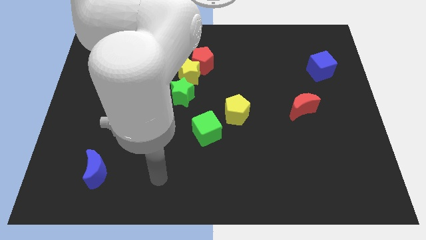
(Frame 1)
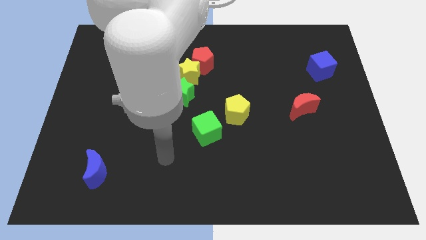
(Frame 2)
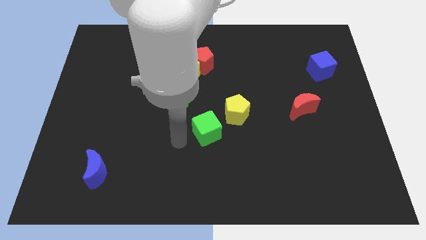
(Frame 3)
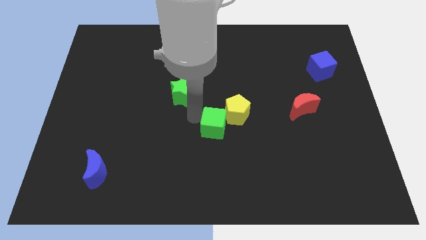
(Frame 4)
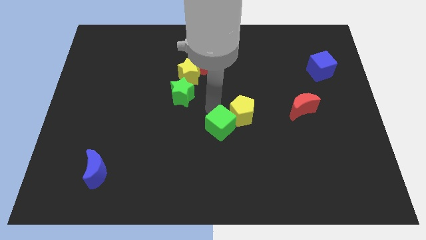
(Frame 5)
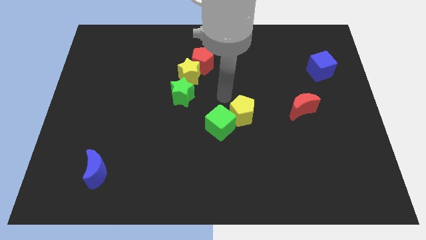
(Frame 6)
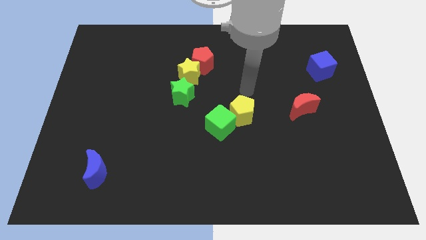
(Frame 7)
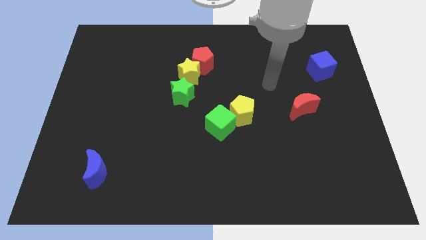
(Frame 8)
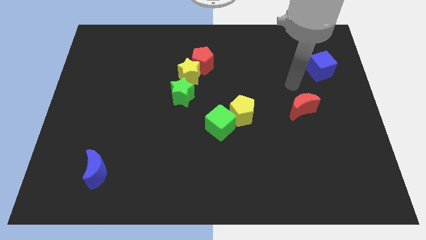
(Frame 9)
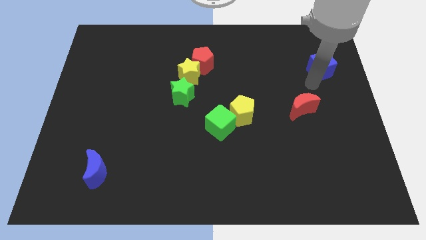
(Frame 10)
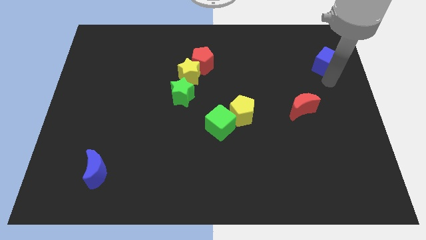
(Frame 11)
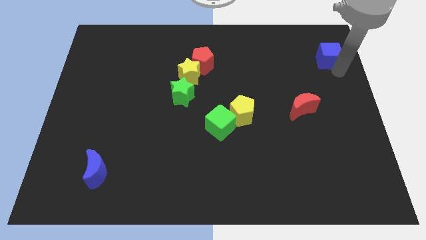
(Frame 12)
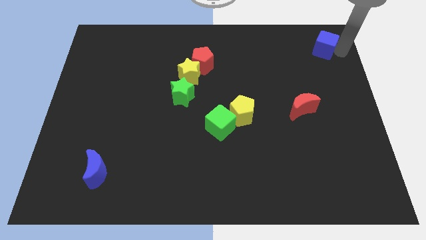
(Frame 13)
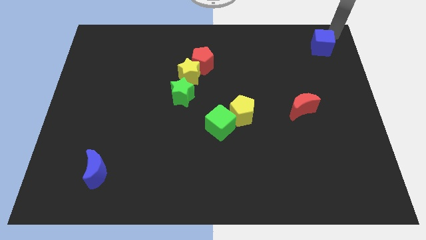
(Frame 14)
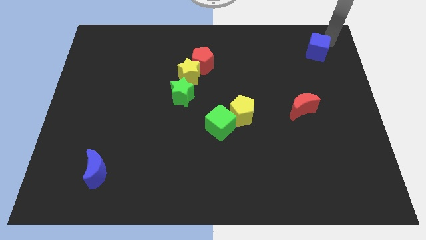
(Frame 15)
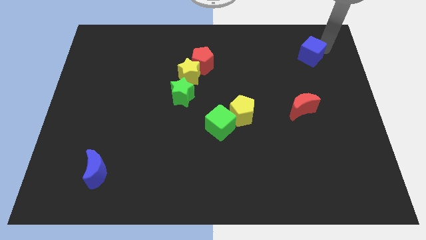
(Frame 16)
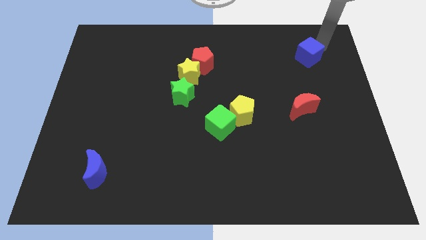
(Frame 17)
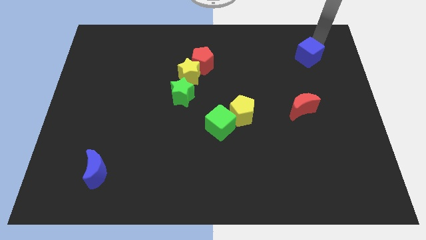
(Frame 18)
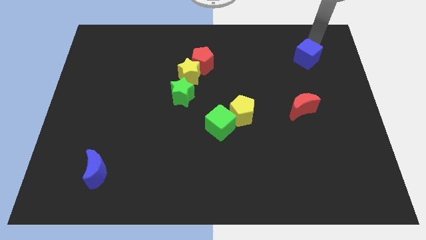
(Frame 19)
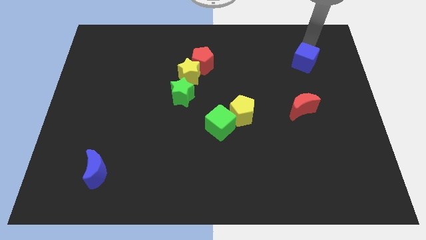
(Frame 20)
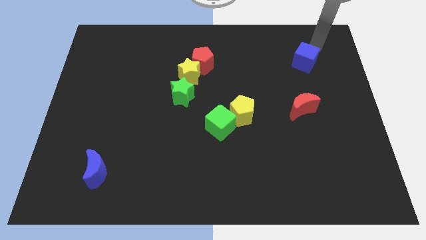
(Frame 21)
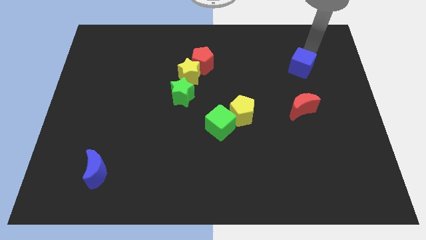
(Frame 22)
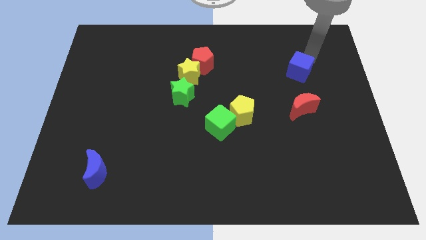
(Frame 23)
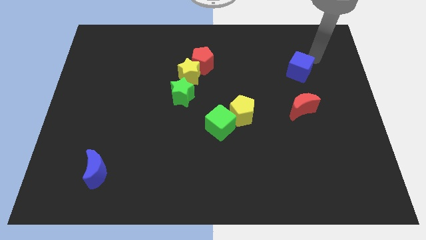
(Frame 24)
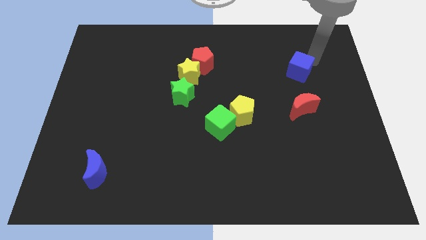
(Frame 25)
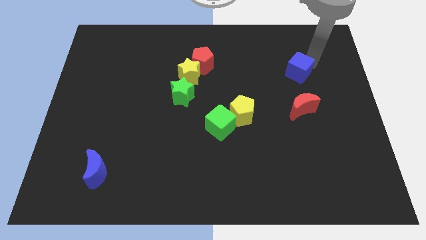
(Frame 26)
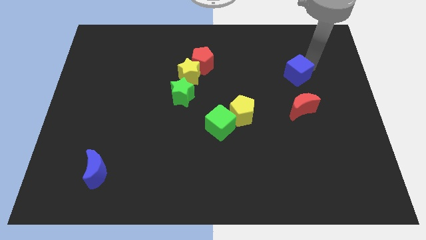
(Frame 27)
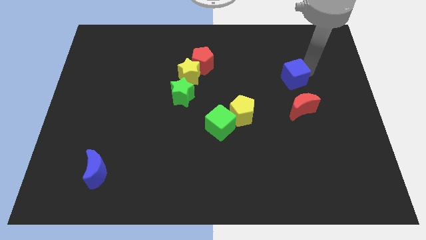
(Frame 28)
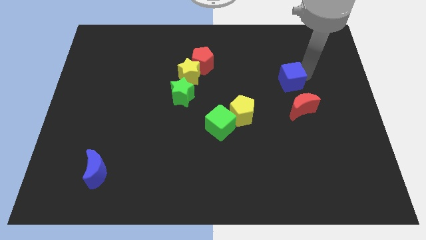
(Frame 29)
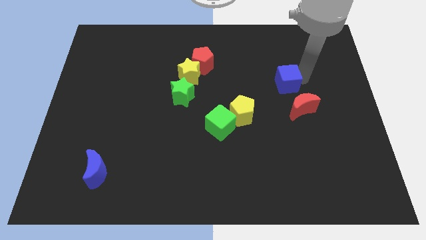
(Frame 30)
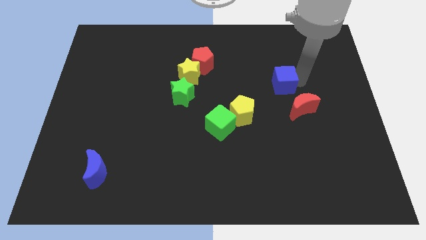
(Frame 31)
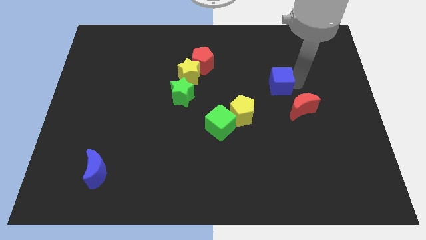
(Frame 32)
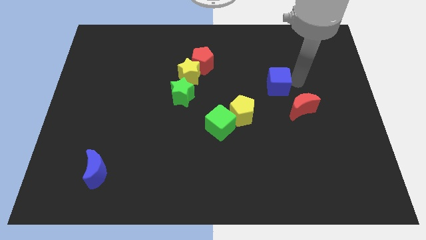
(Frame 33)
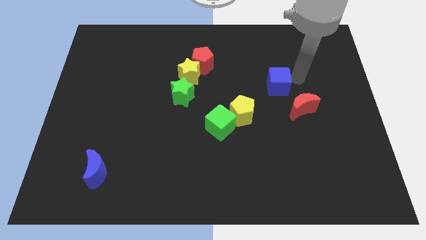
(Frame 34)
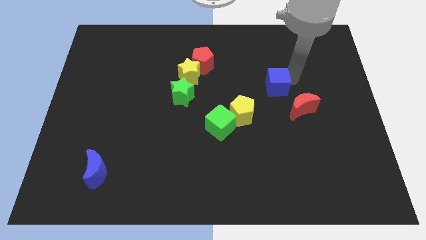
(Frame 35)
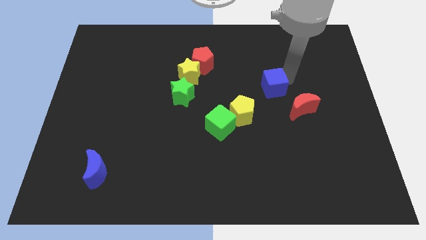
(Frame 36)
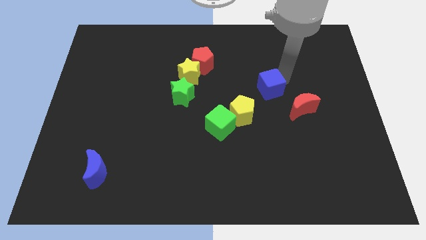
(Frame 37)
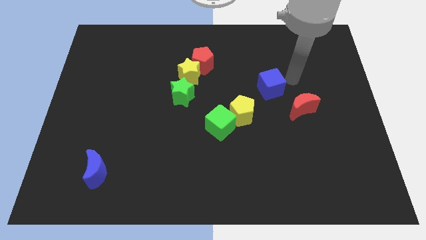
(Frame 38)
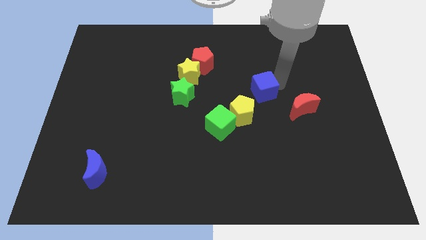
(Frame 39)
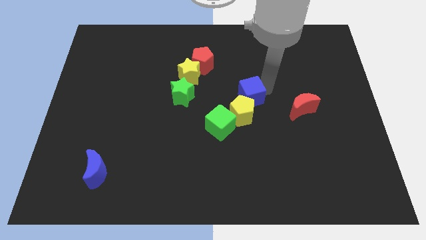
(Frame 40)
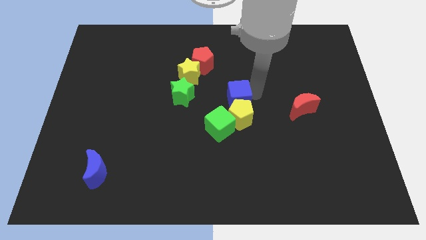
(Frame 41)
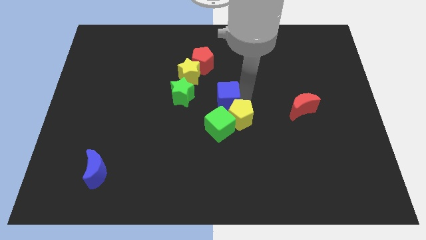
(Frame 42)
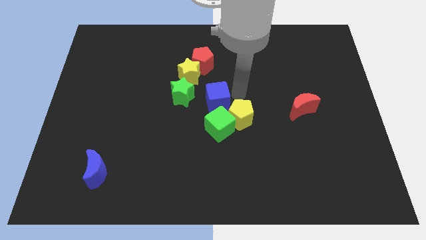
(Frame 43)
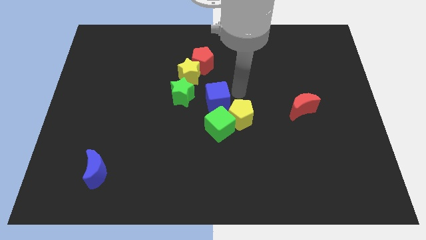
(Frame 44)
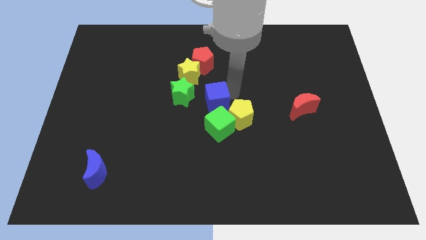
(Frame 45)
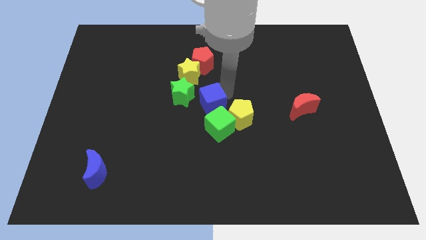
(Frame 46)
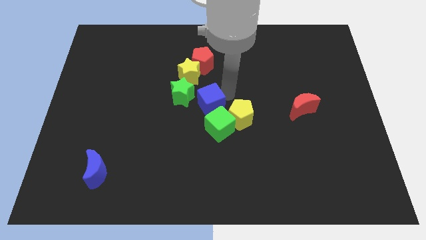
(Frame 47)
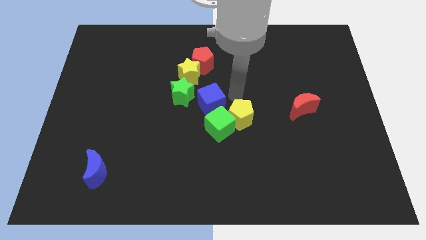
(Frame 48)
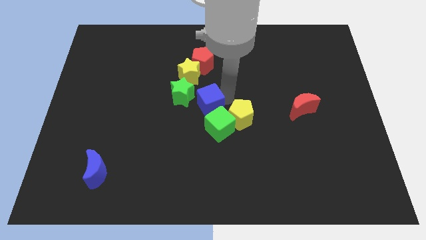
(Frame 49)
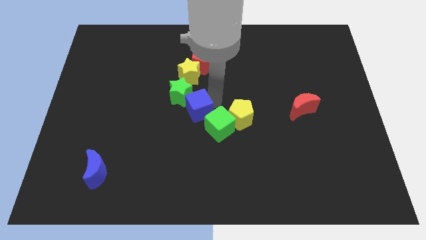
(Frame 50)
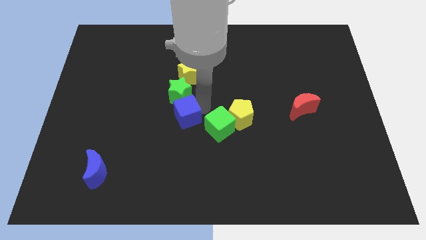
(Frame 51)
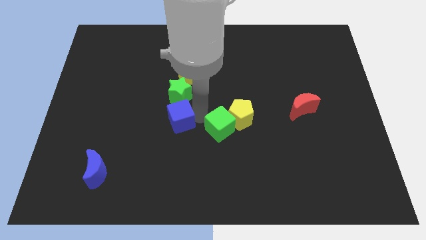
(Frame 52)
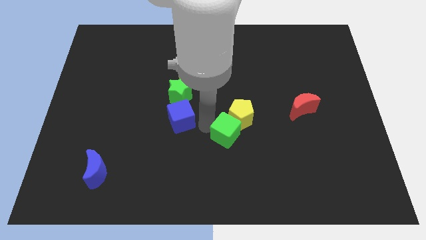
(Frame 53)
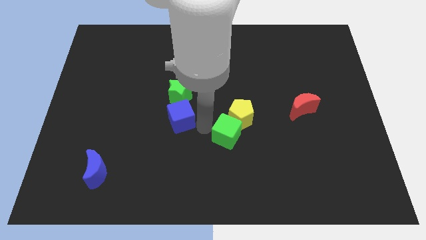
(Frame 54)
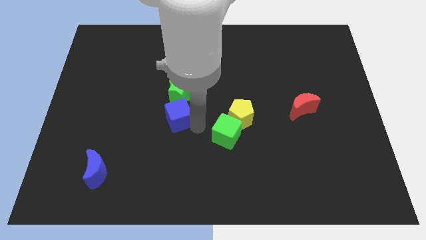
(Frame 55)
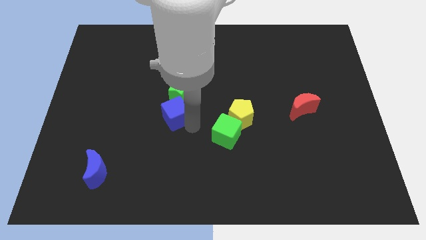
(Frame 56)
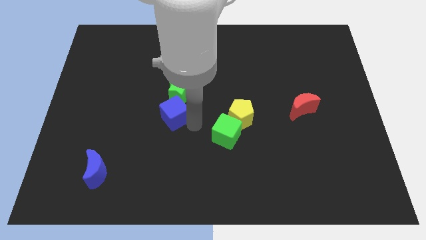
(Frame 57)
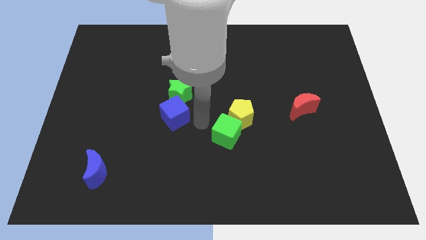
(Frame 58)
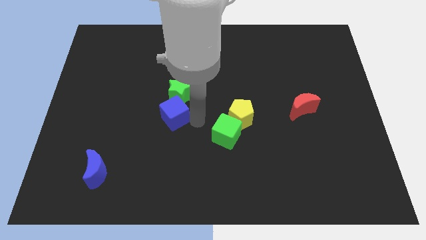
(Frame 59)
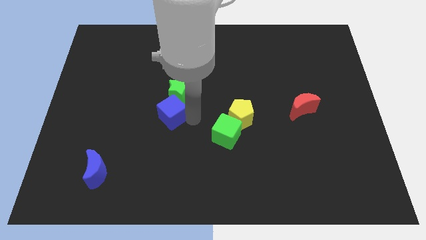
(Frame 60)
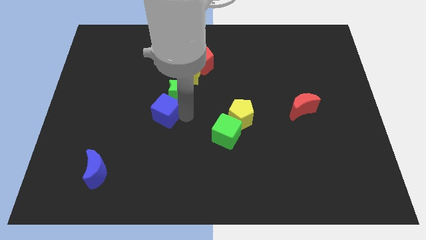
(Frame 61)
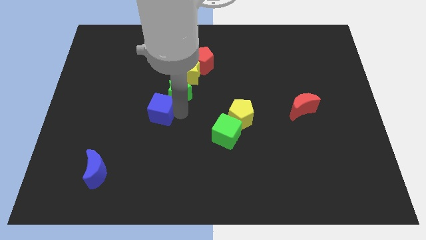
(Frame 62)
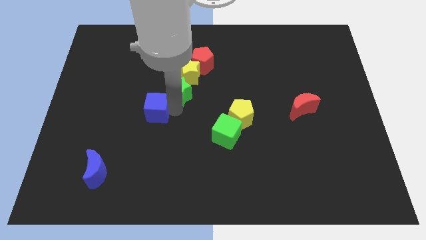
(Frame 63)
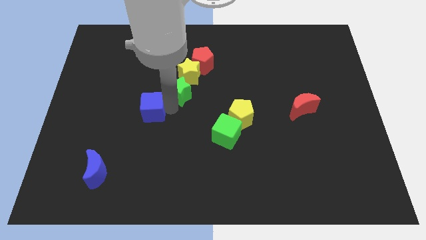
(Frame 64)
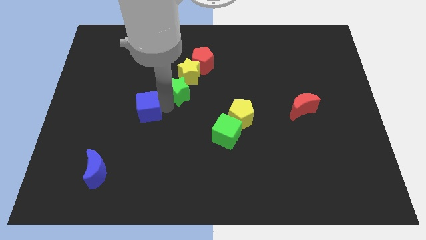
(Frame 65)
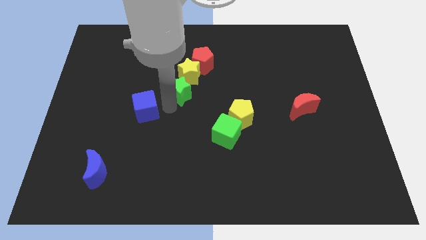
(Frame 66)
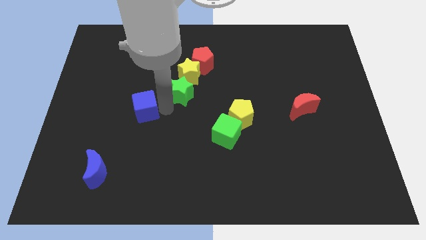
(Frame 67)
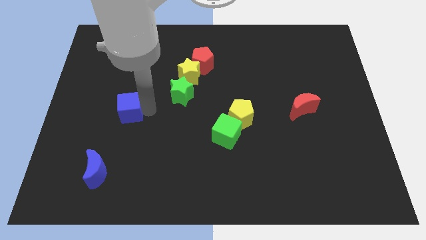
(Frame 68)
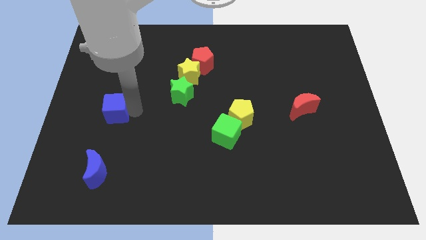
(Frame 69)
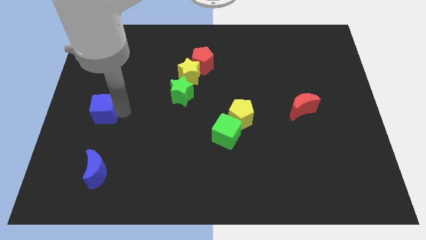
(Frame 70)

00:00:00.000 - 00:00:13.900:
slide the blue cube to the center left
